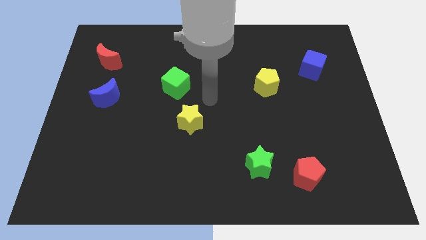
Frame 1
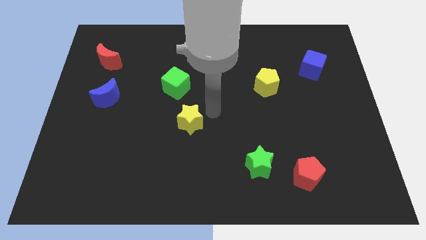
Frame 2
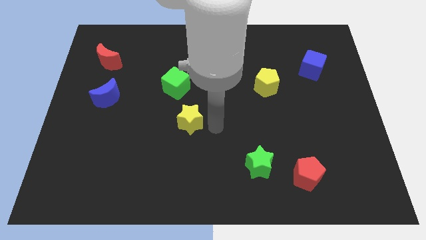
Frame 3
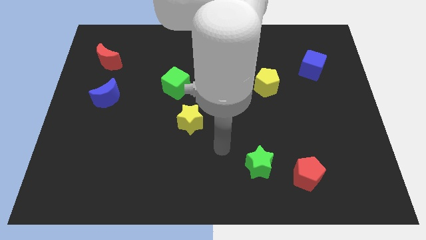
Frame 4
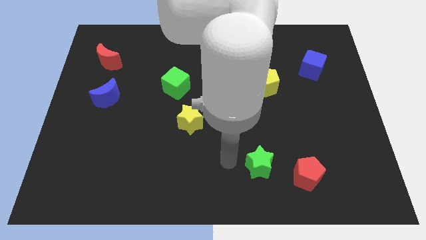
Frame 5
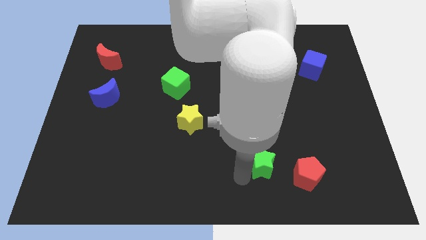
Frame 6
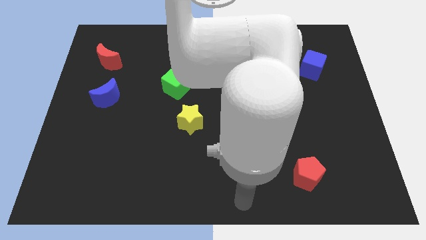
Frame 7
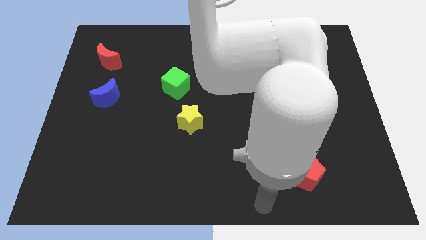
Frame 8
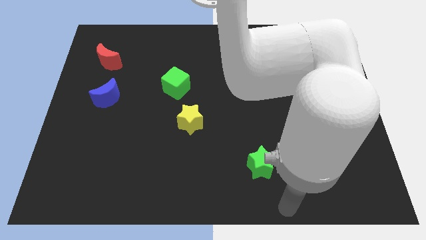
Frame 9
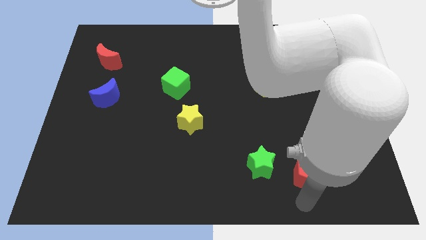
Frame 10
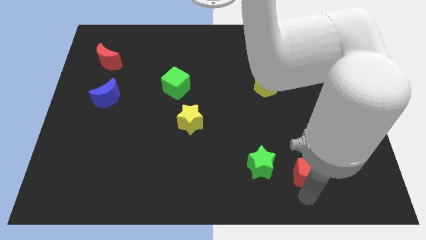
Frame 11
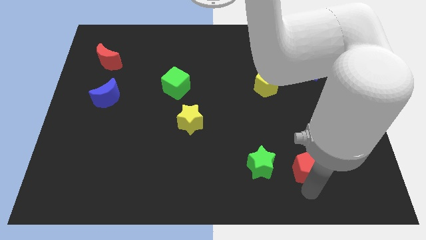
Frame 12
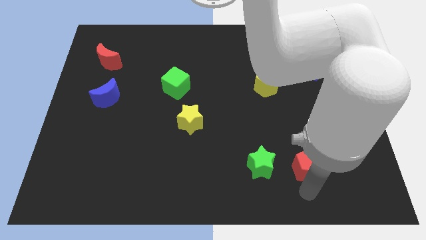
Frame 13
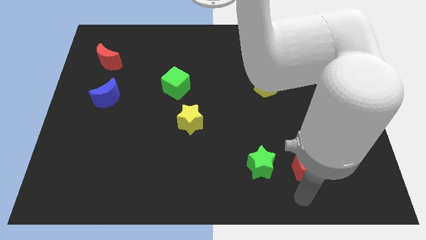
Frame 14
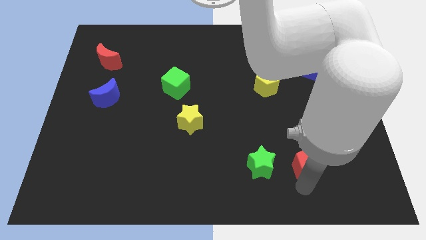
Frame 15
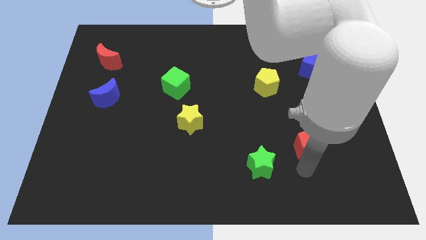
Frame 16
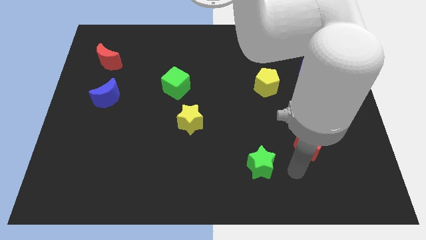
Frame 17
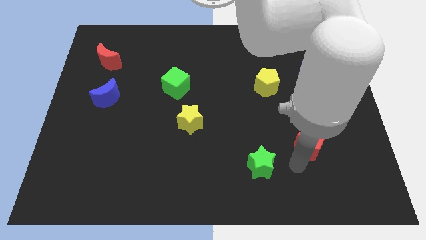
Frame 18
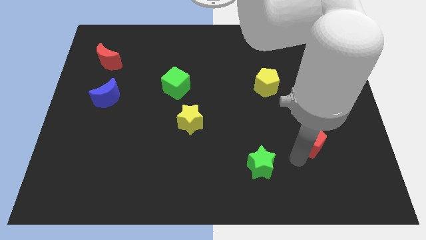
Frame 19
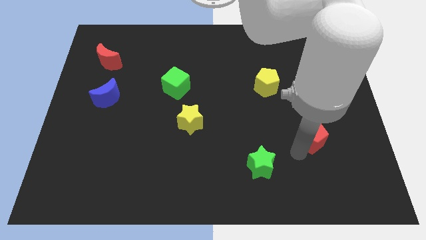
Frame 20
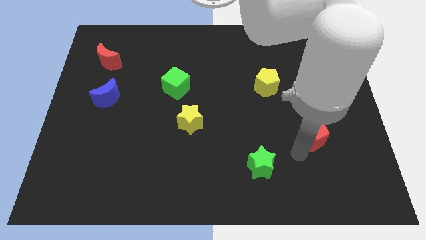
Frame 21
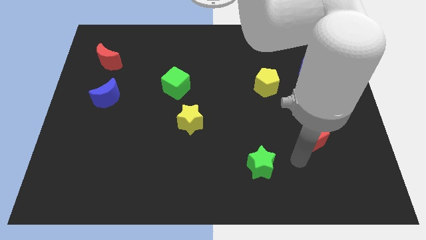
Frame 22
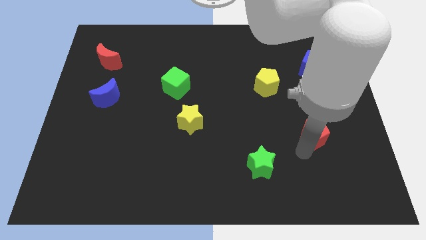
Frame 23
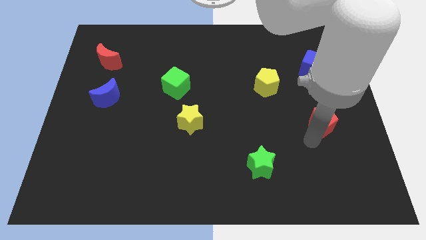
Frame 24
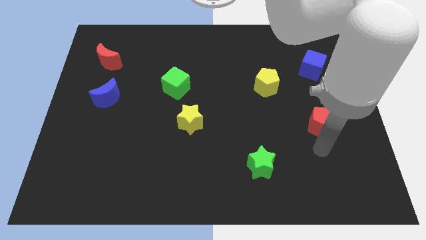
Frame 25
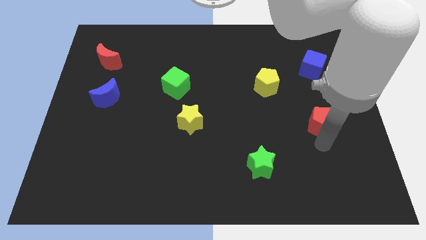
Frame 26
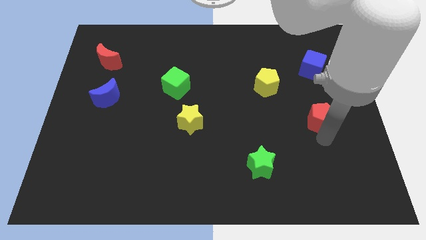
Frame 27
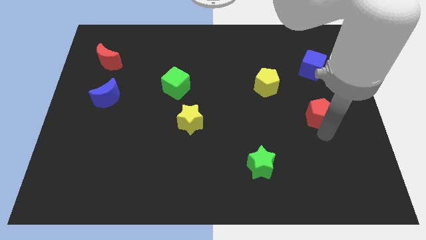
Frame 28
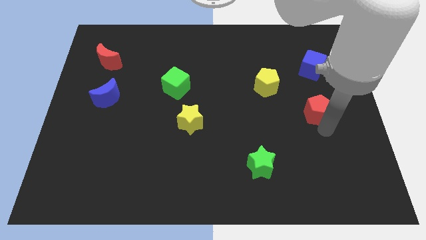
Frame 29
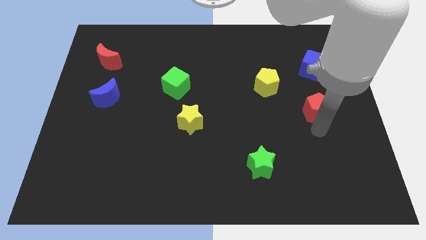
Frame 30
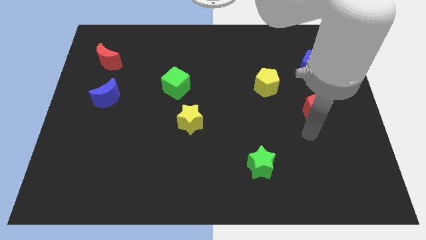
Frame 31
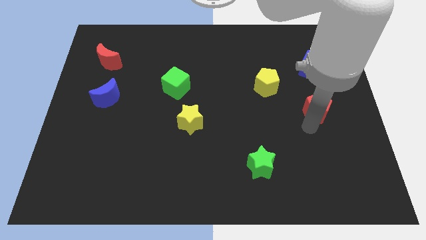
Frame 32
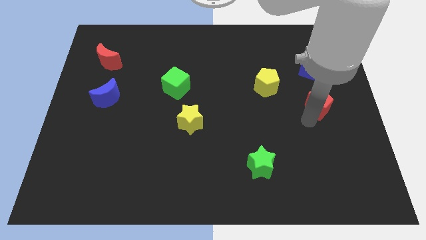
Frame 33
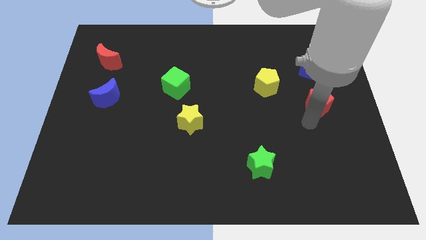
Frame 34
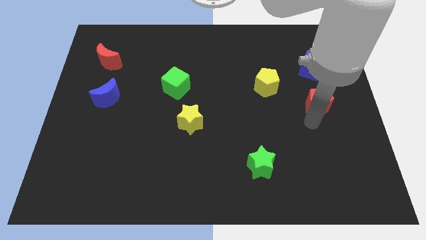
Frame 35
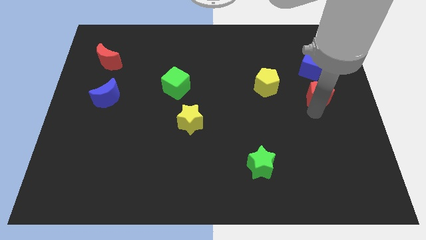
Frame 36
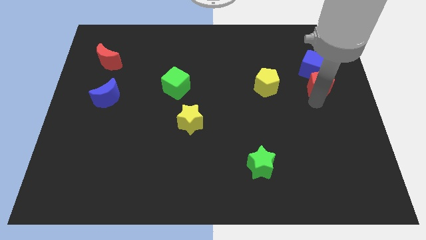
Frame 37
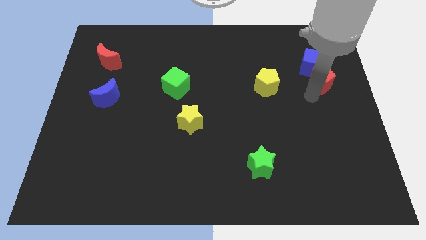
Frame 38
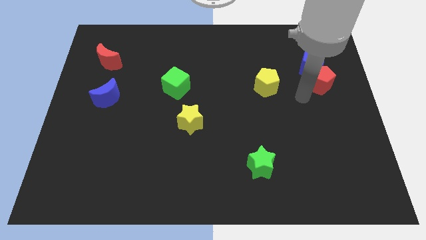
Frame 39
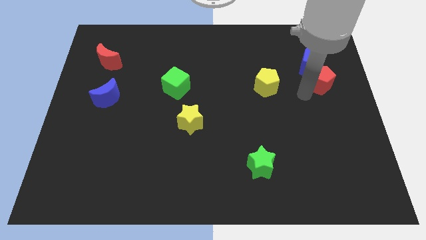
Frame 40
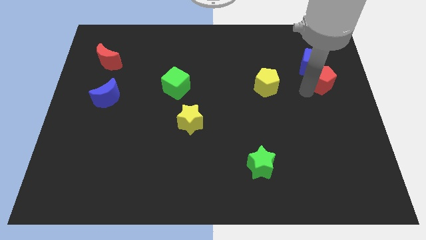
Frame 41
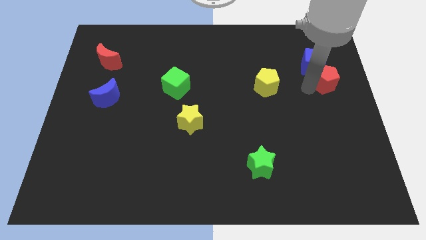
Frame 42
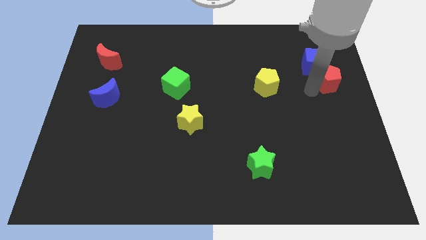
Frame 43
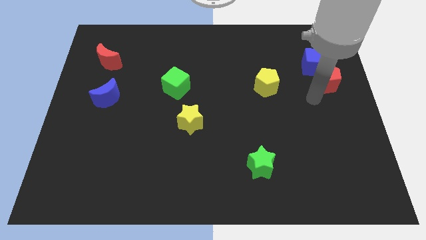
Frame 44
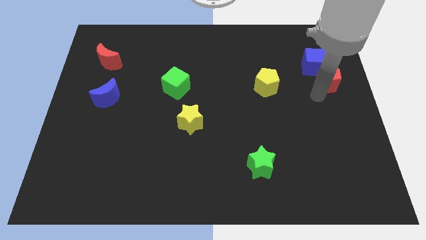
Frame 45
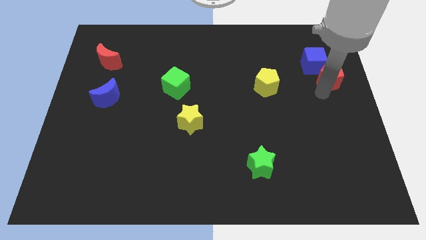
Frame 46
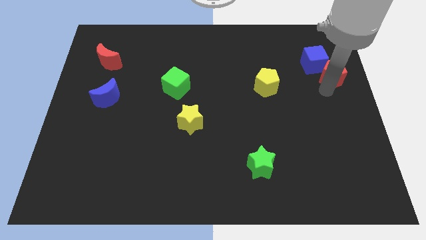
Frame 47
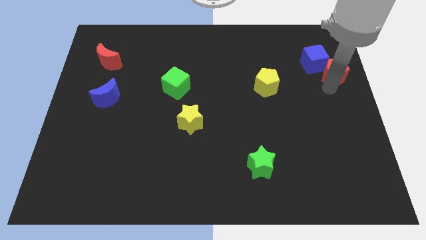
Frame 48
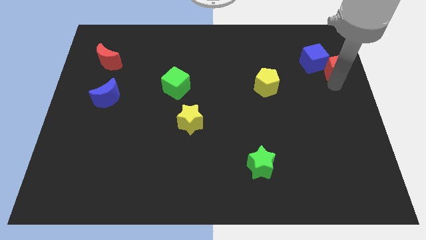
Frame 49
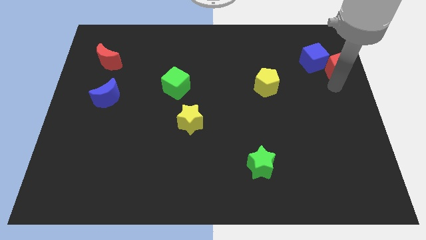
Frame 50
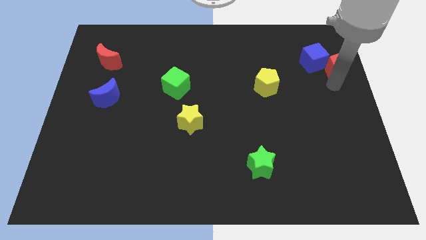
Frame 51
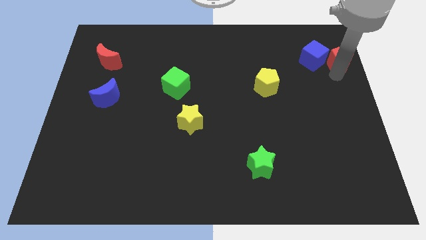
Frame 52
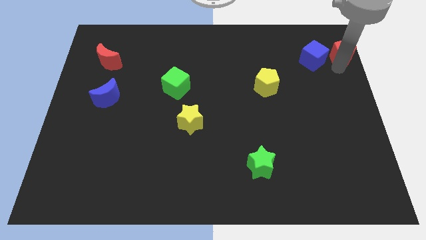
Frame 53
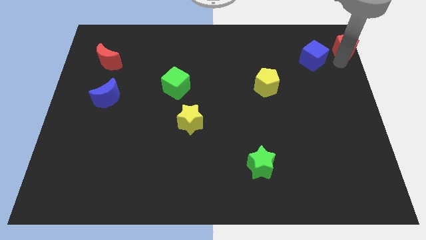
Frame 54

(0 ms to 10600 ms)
move the red pentagon to the top right of the board
